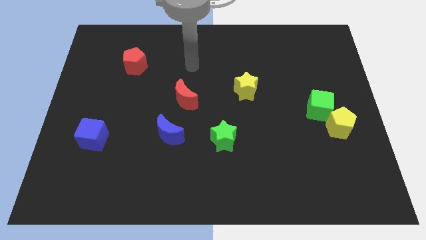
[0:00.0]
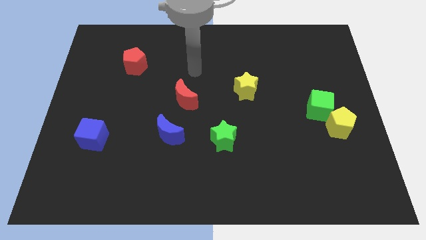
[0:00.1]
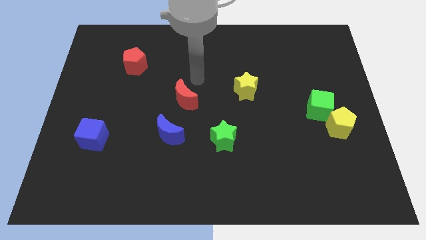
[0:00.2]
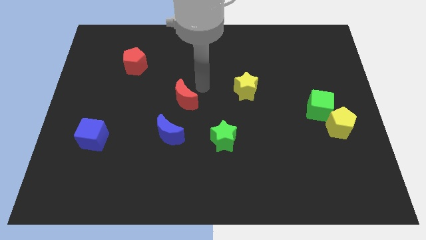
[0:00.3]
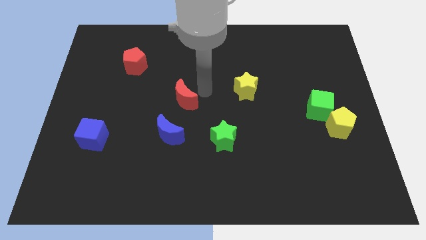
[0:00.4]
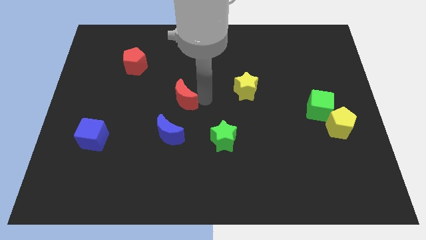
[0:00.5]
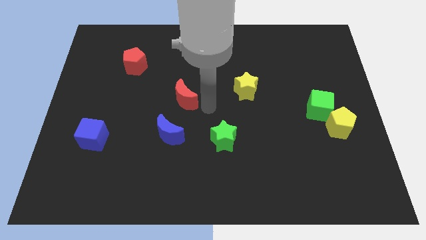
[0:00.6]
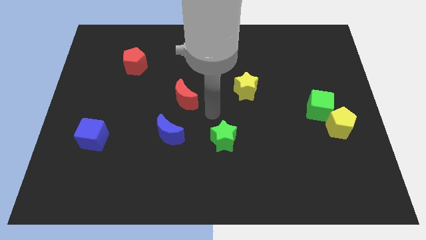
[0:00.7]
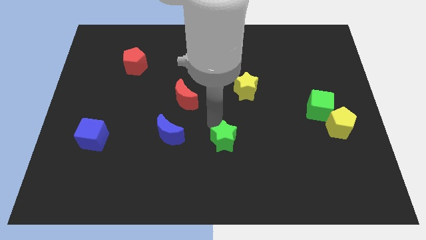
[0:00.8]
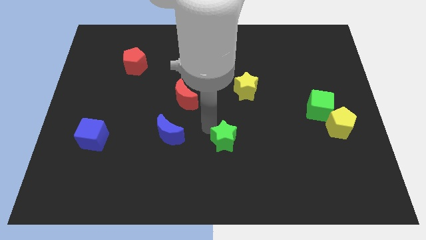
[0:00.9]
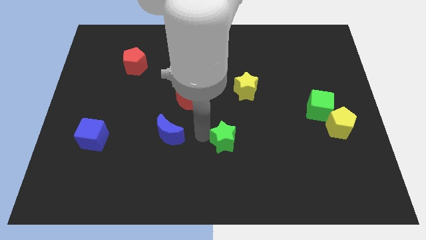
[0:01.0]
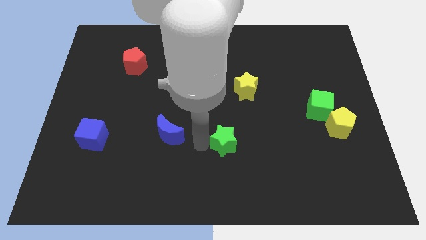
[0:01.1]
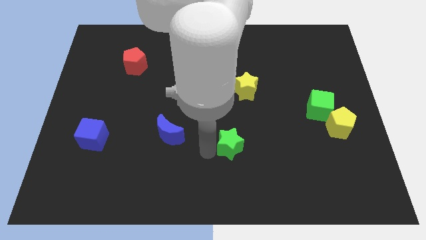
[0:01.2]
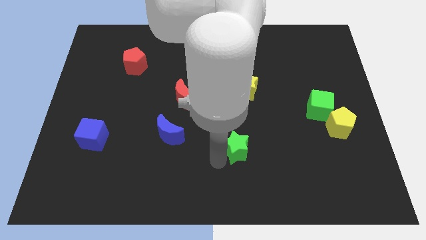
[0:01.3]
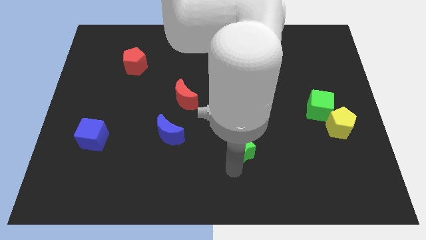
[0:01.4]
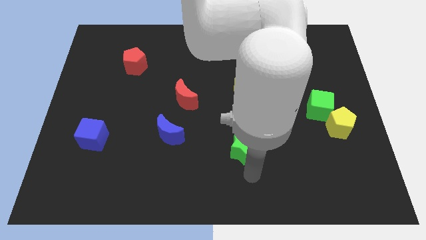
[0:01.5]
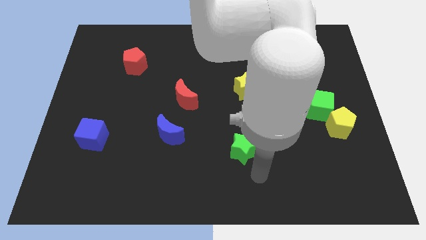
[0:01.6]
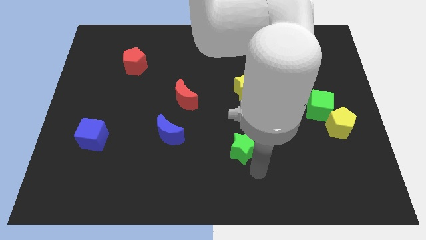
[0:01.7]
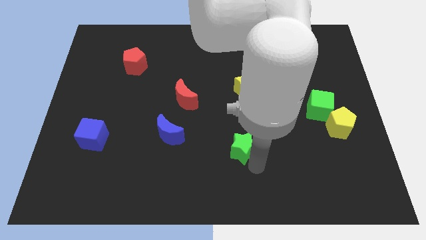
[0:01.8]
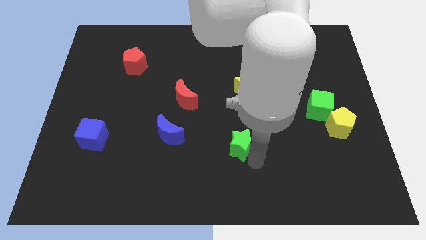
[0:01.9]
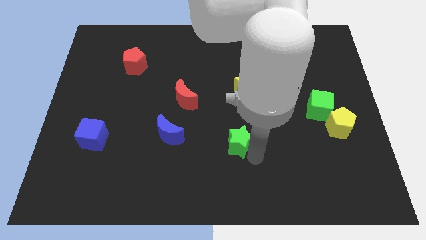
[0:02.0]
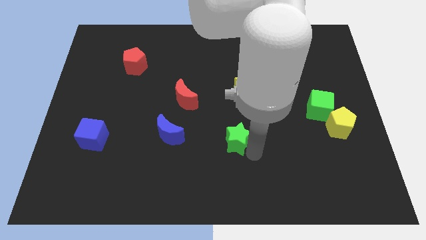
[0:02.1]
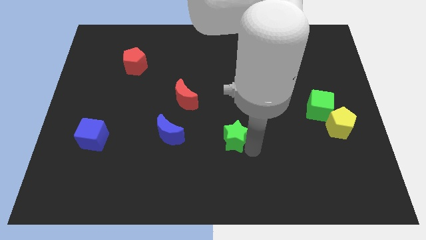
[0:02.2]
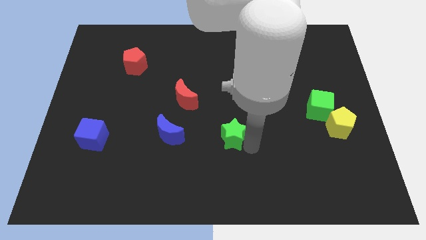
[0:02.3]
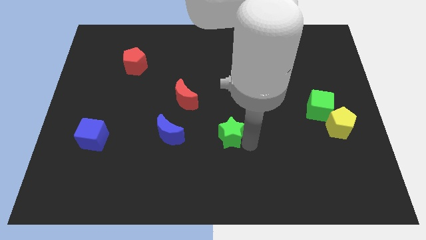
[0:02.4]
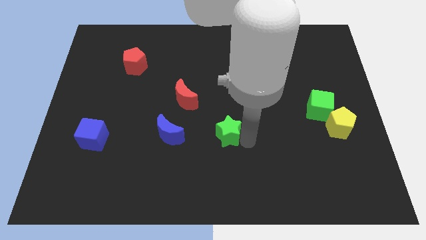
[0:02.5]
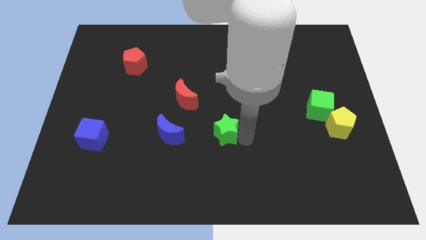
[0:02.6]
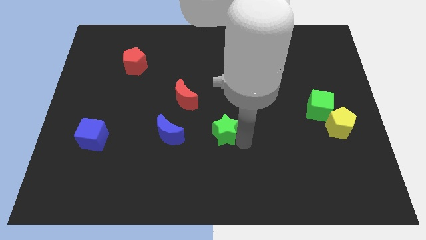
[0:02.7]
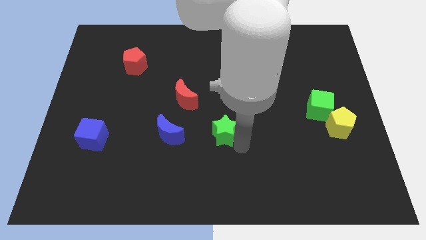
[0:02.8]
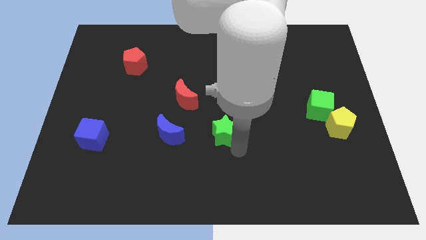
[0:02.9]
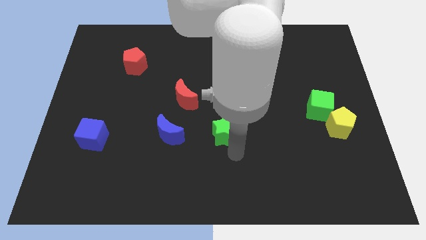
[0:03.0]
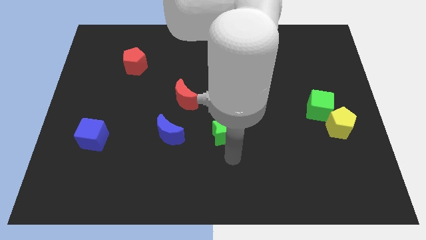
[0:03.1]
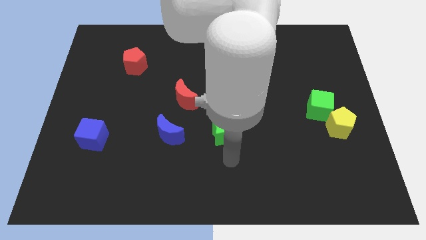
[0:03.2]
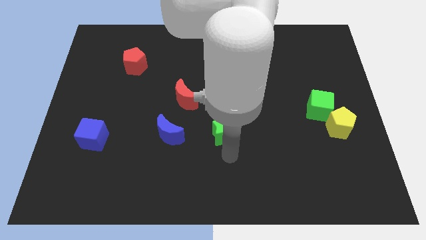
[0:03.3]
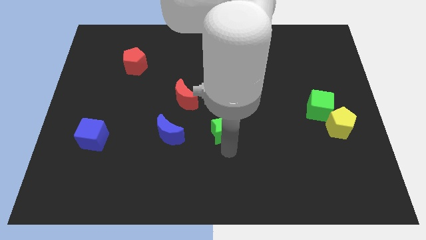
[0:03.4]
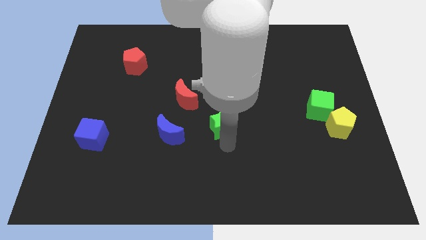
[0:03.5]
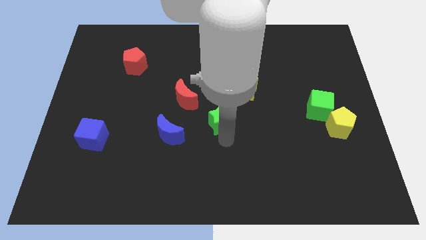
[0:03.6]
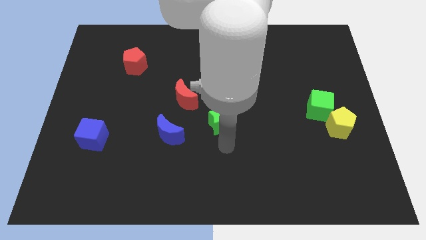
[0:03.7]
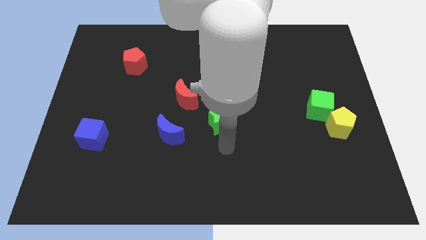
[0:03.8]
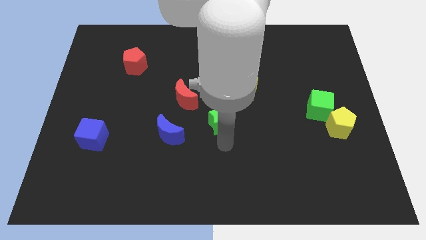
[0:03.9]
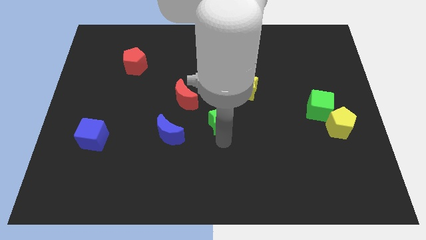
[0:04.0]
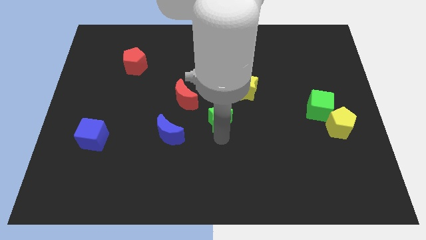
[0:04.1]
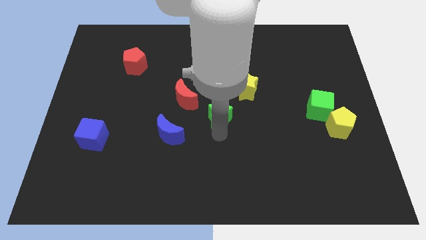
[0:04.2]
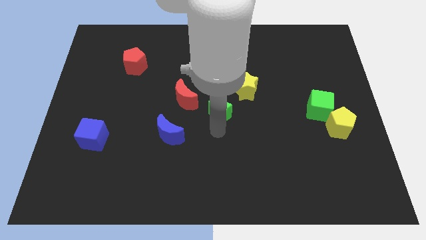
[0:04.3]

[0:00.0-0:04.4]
slightly move the green star up

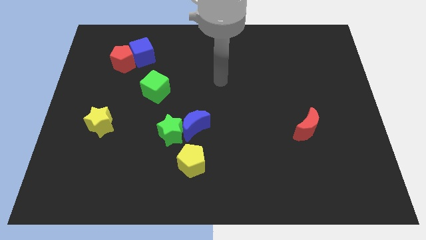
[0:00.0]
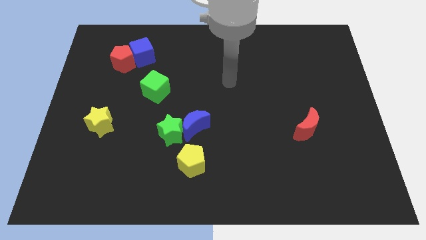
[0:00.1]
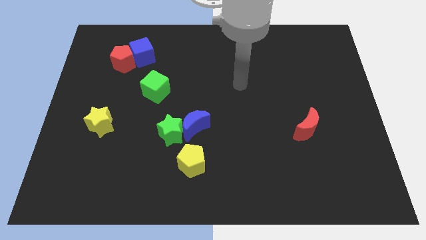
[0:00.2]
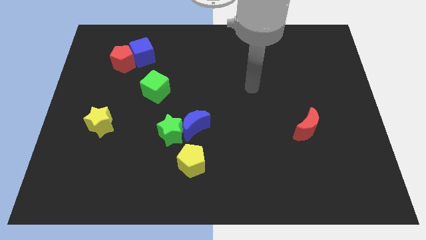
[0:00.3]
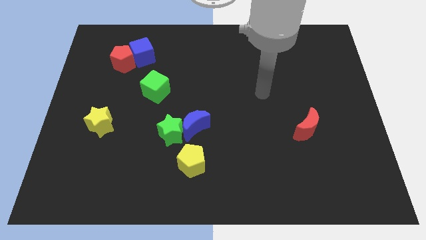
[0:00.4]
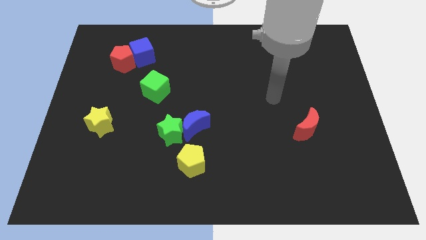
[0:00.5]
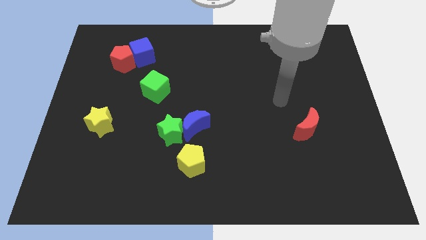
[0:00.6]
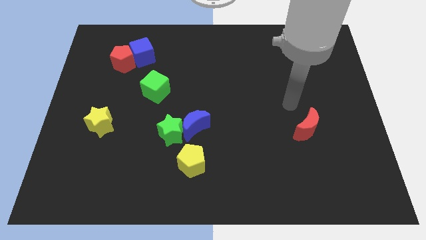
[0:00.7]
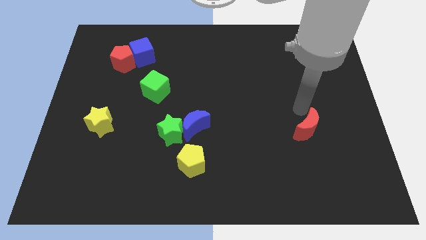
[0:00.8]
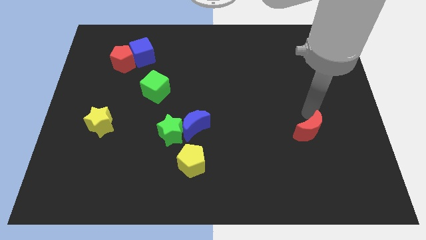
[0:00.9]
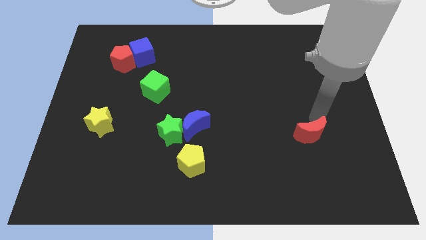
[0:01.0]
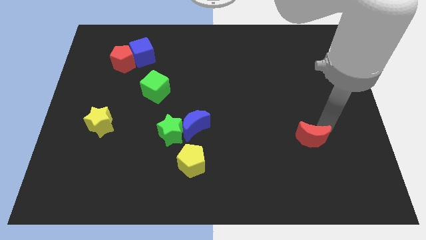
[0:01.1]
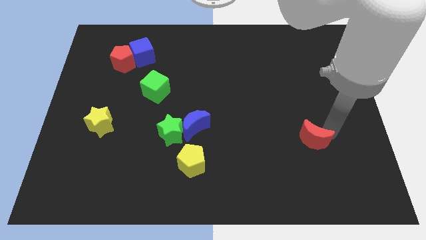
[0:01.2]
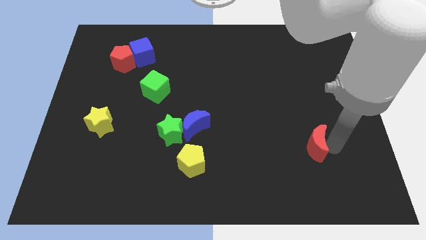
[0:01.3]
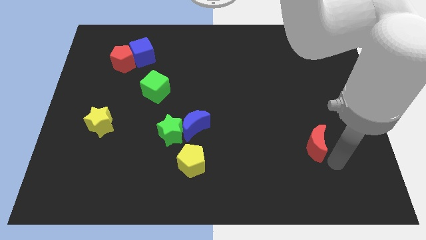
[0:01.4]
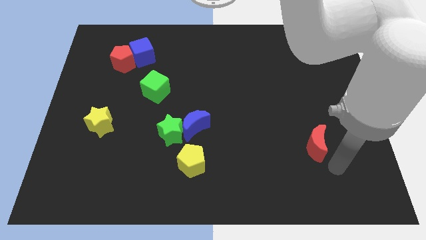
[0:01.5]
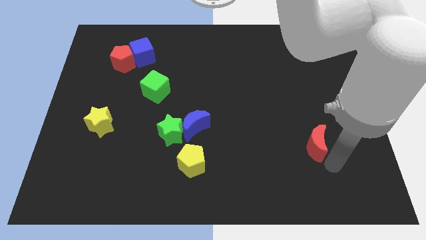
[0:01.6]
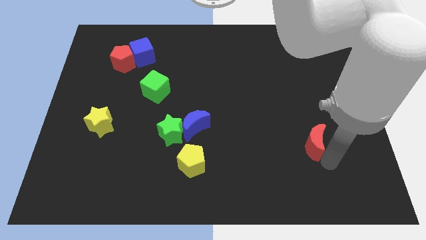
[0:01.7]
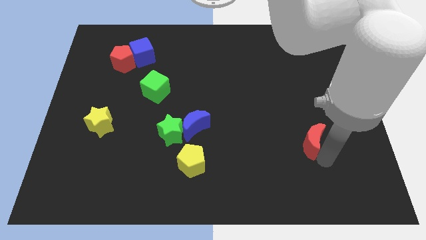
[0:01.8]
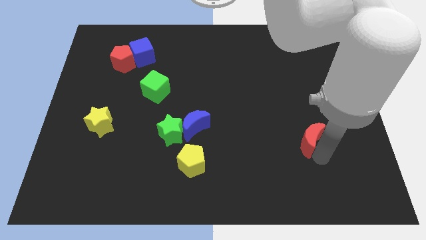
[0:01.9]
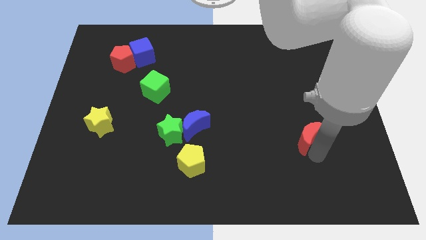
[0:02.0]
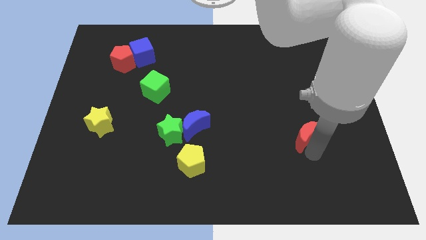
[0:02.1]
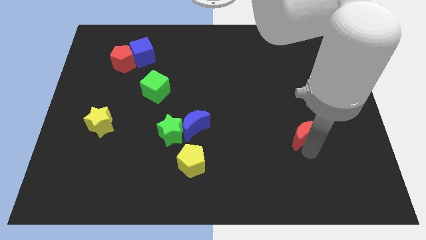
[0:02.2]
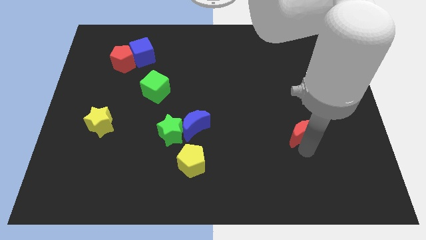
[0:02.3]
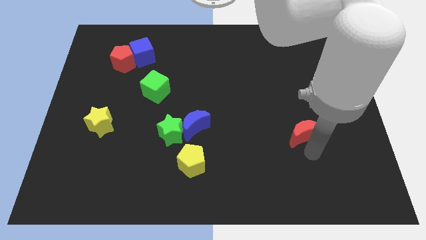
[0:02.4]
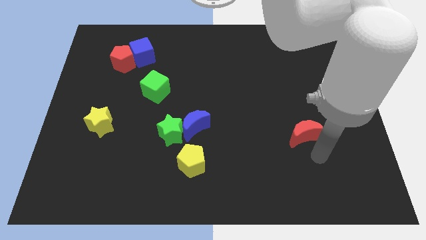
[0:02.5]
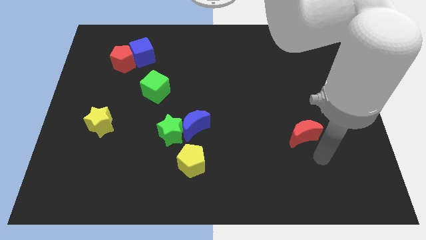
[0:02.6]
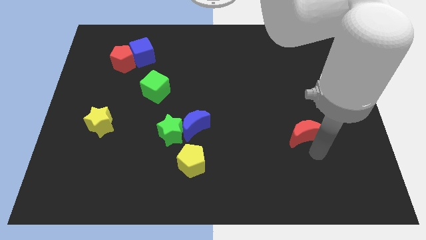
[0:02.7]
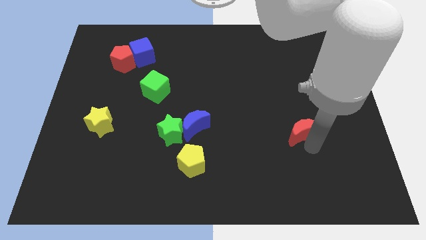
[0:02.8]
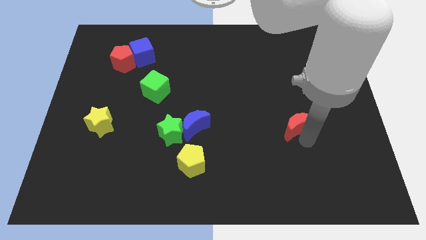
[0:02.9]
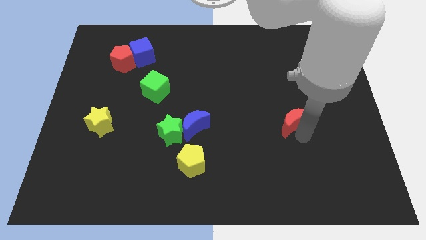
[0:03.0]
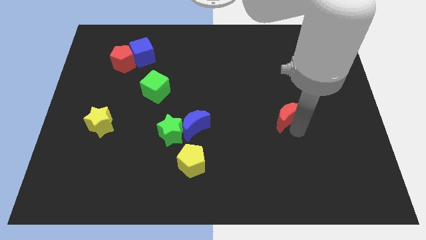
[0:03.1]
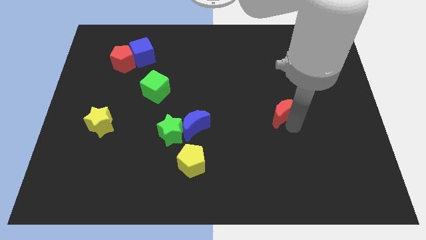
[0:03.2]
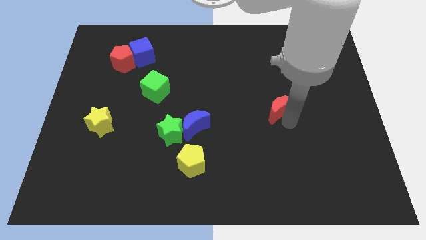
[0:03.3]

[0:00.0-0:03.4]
slightly slide the red moon diagonally up and to the left
